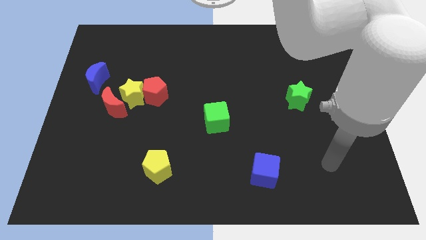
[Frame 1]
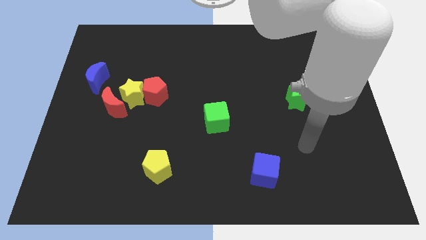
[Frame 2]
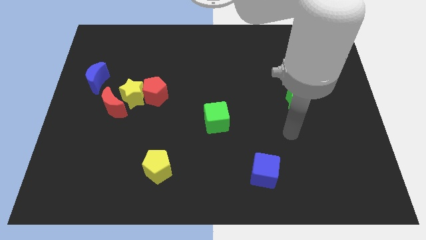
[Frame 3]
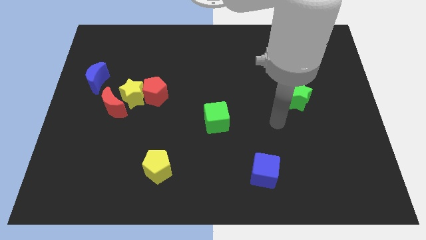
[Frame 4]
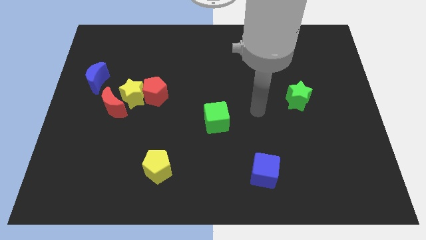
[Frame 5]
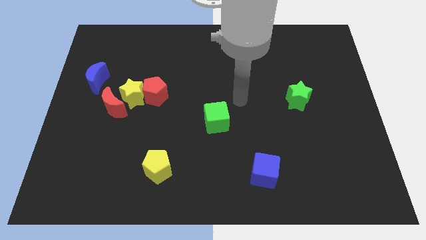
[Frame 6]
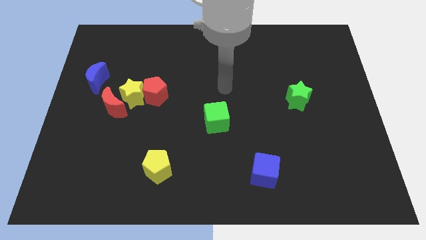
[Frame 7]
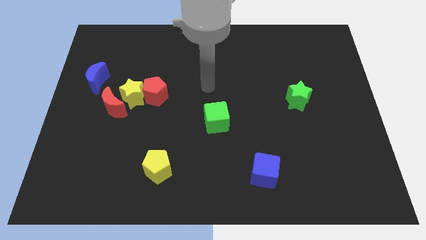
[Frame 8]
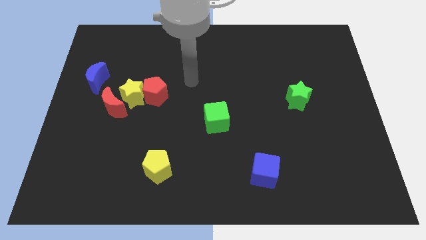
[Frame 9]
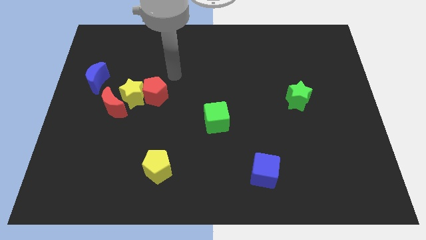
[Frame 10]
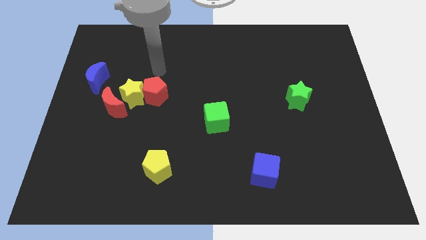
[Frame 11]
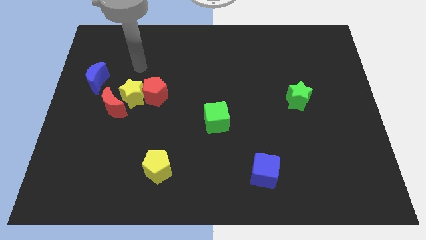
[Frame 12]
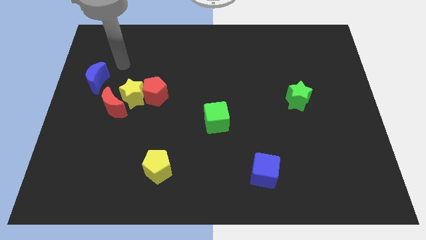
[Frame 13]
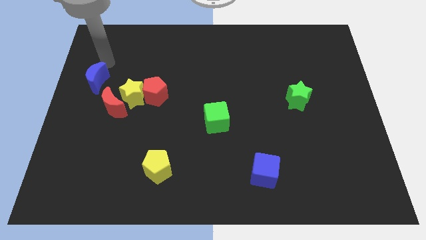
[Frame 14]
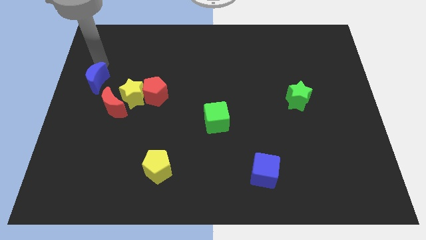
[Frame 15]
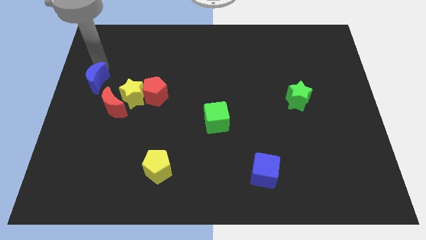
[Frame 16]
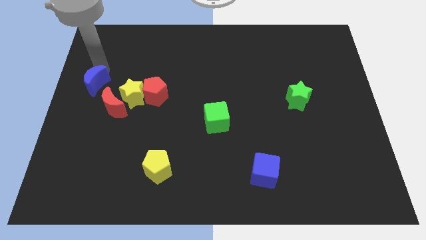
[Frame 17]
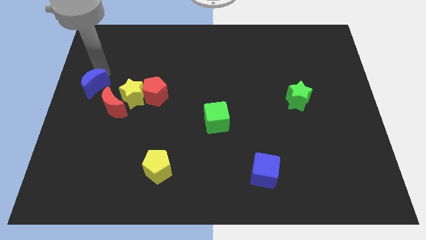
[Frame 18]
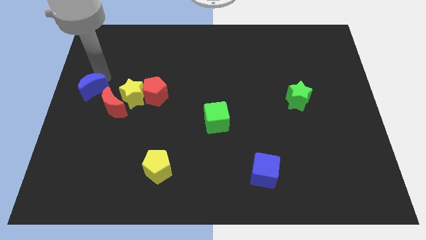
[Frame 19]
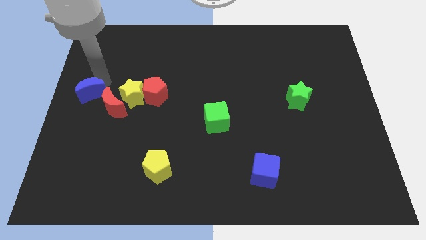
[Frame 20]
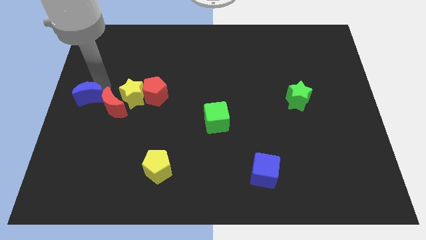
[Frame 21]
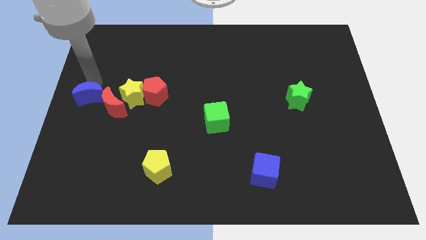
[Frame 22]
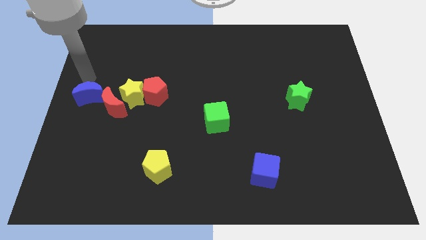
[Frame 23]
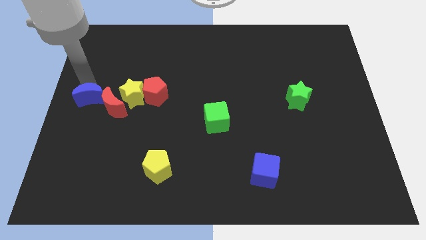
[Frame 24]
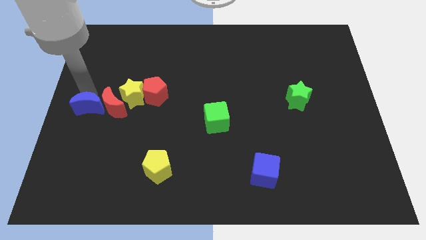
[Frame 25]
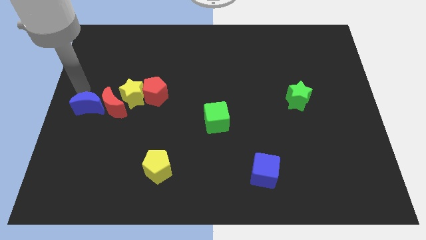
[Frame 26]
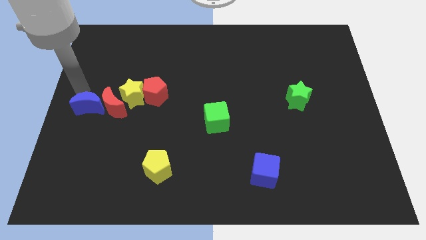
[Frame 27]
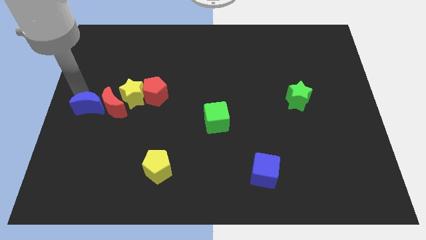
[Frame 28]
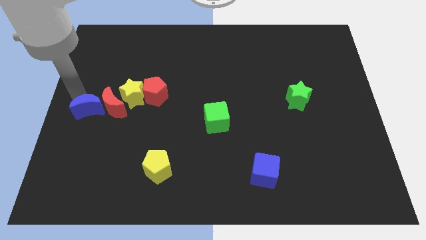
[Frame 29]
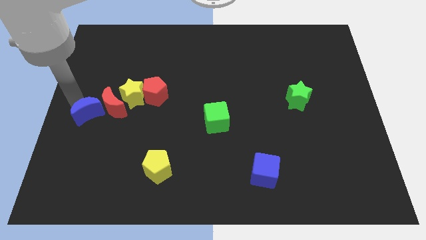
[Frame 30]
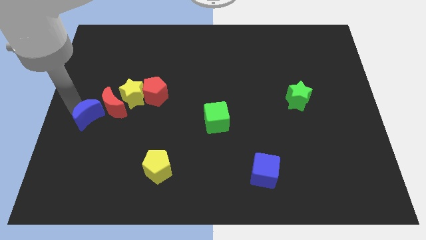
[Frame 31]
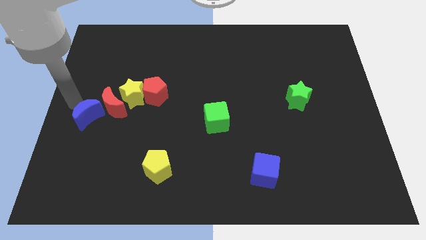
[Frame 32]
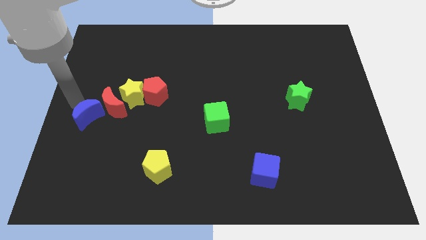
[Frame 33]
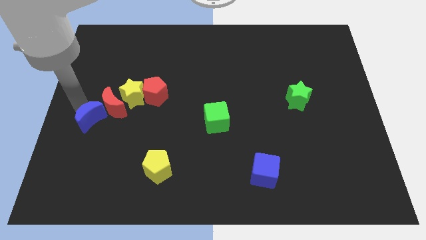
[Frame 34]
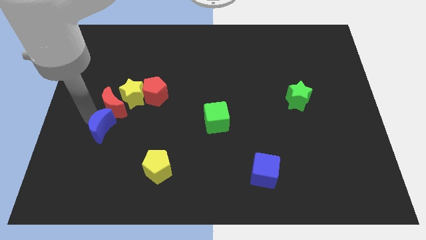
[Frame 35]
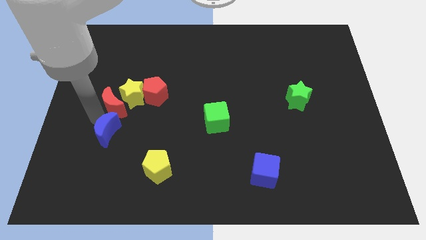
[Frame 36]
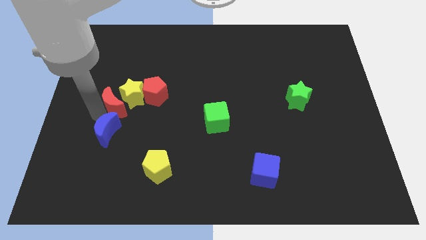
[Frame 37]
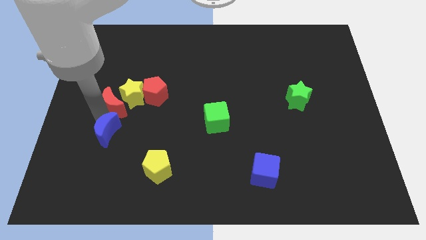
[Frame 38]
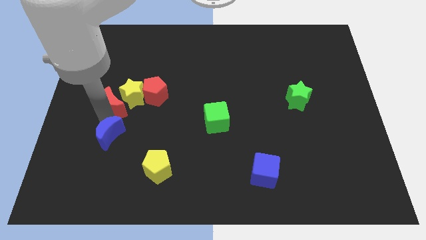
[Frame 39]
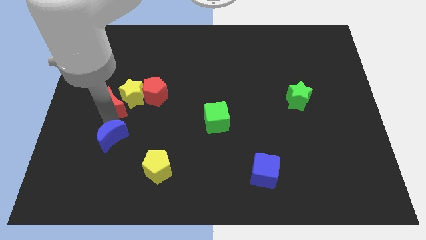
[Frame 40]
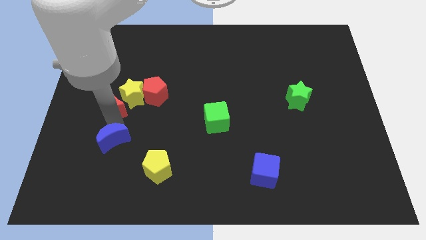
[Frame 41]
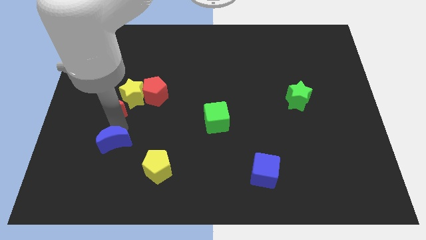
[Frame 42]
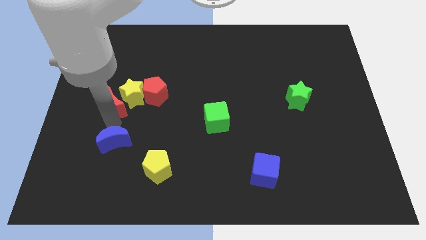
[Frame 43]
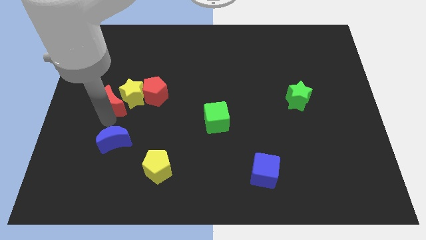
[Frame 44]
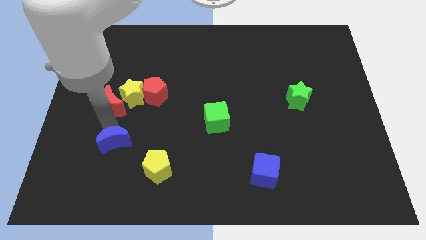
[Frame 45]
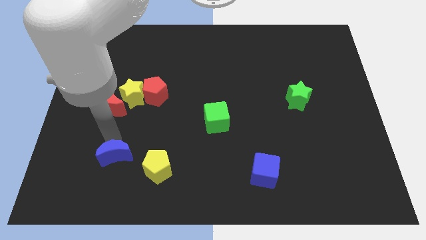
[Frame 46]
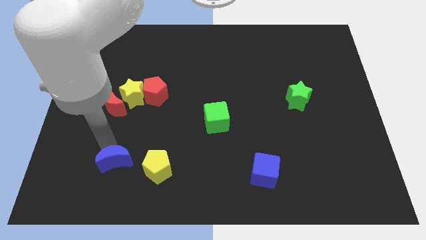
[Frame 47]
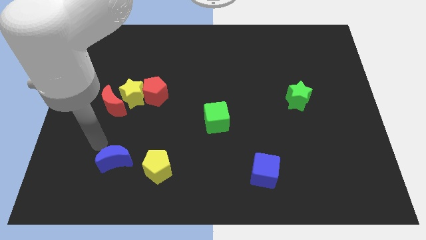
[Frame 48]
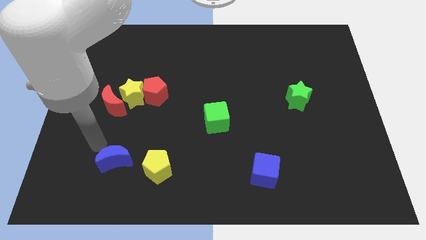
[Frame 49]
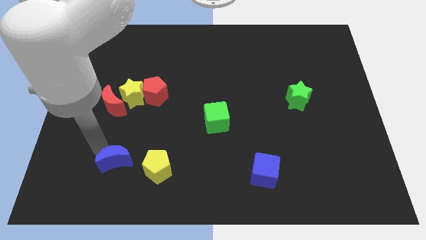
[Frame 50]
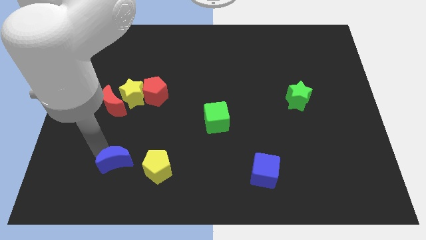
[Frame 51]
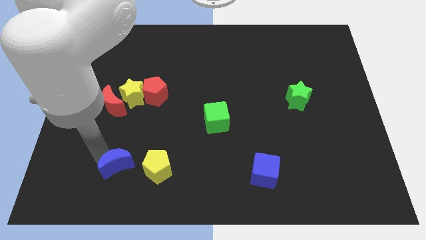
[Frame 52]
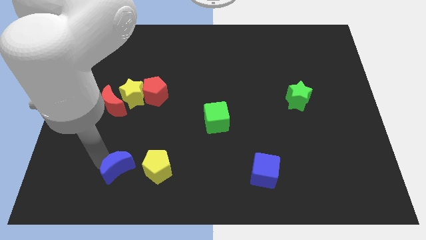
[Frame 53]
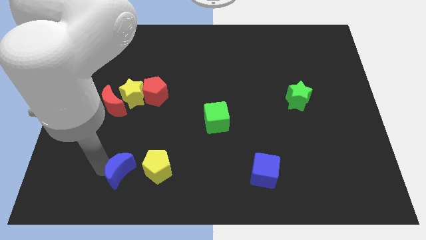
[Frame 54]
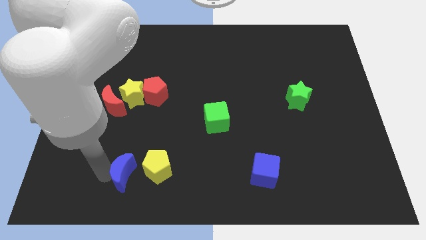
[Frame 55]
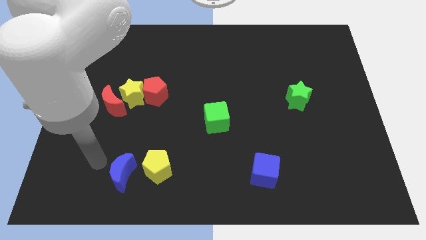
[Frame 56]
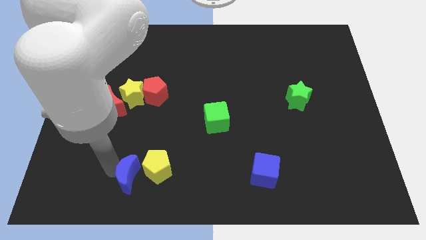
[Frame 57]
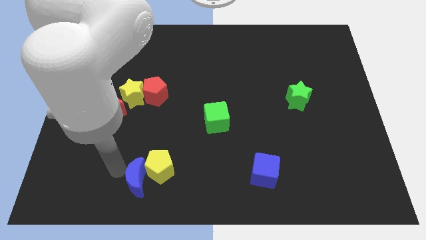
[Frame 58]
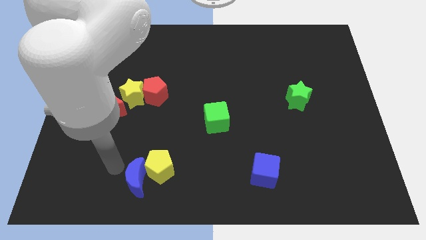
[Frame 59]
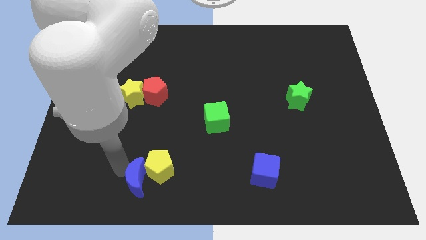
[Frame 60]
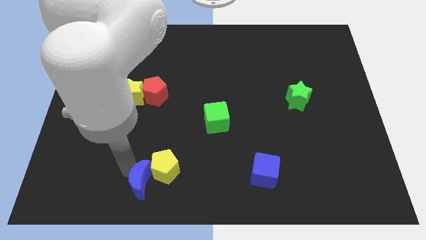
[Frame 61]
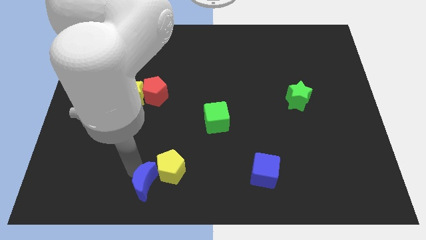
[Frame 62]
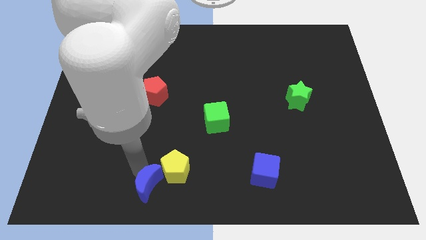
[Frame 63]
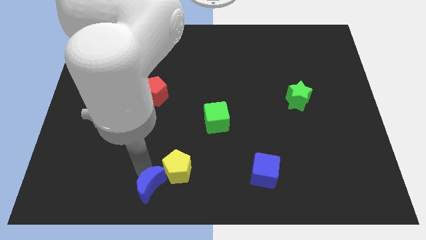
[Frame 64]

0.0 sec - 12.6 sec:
push the blue moon to the bottom
